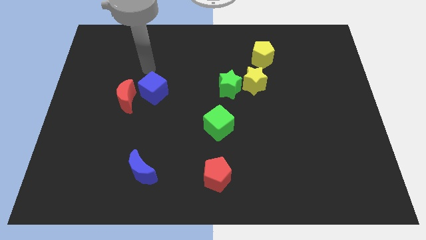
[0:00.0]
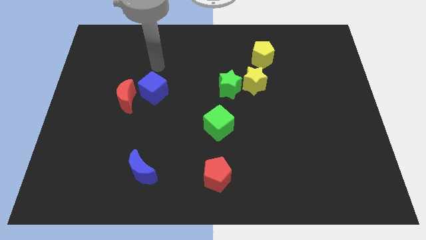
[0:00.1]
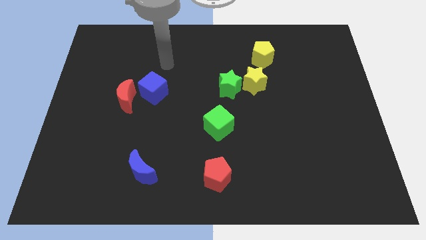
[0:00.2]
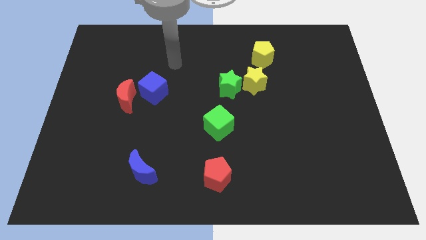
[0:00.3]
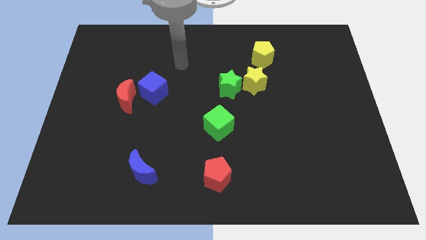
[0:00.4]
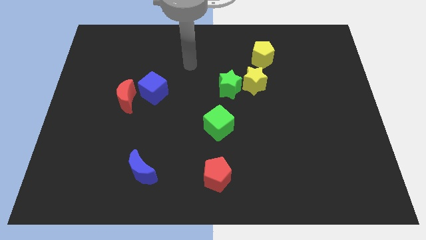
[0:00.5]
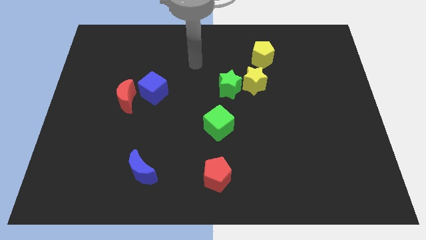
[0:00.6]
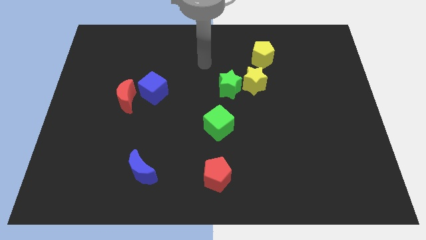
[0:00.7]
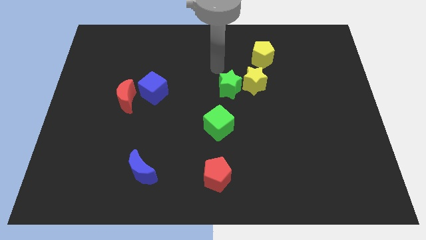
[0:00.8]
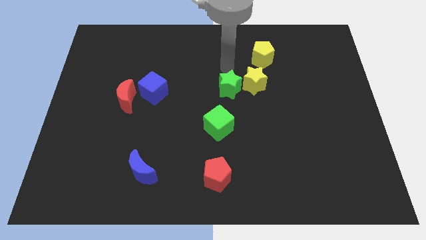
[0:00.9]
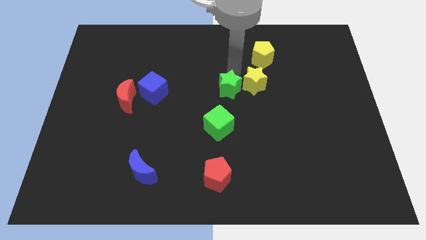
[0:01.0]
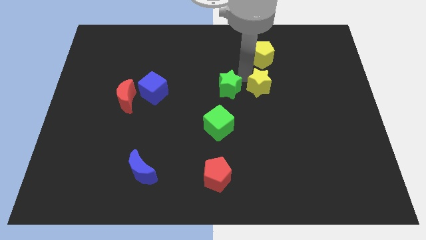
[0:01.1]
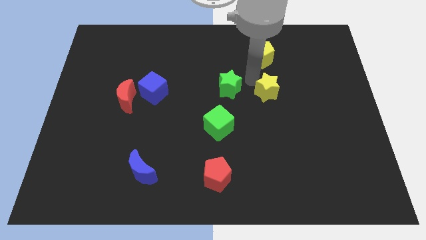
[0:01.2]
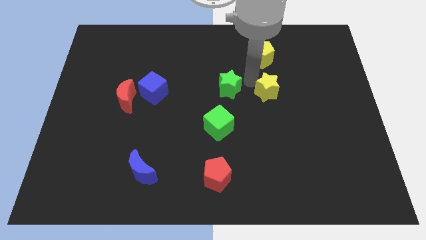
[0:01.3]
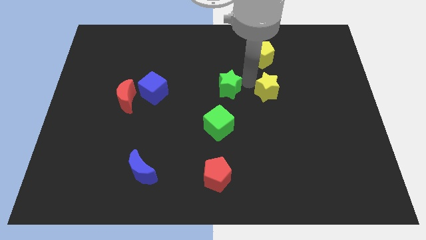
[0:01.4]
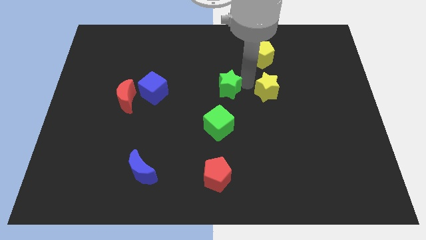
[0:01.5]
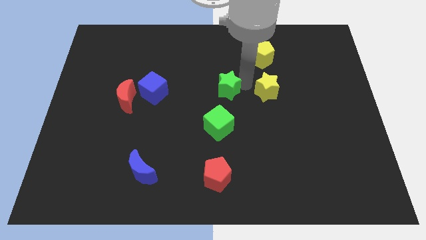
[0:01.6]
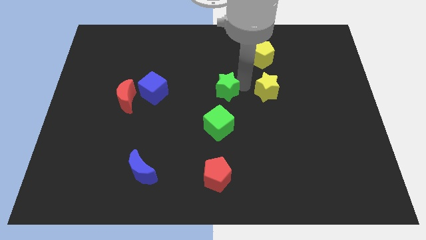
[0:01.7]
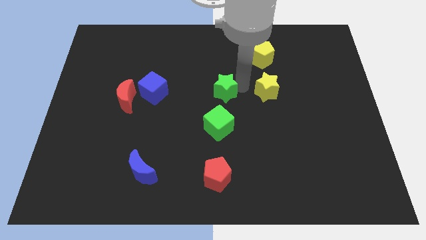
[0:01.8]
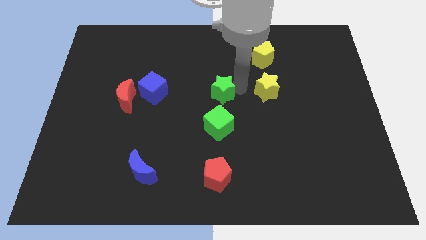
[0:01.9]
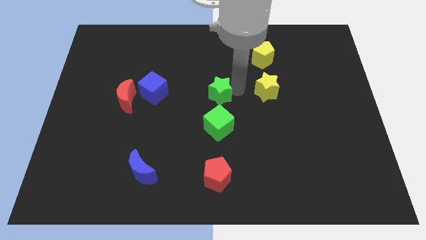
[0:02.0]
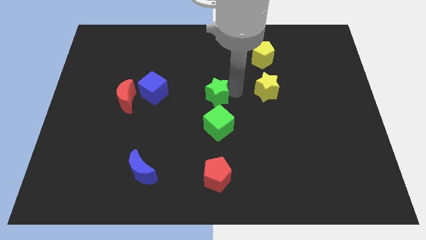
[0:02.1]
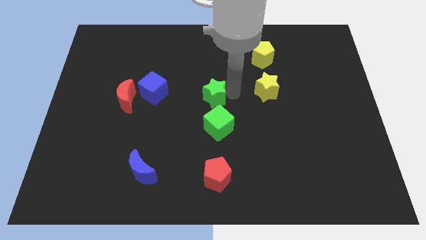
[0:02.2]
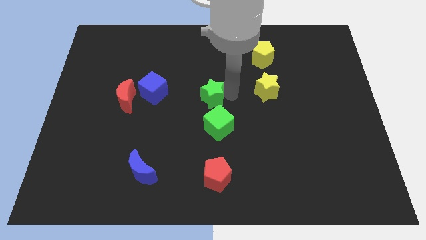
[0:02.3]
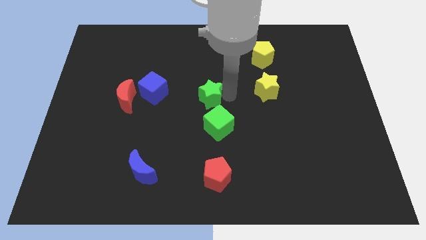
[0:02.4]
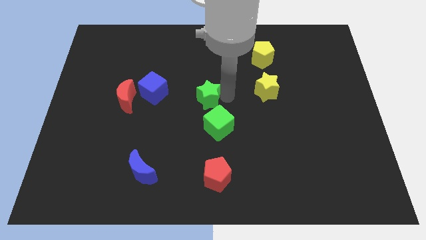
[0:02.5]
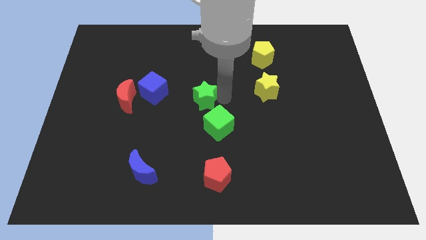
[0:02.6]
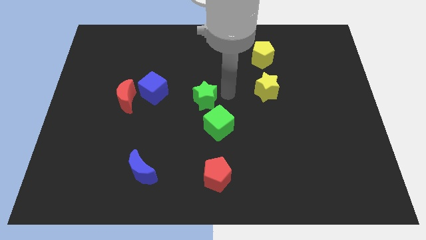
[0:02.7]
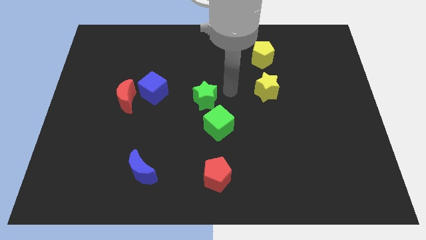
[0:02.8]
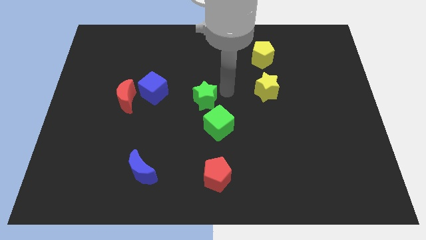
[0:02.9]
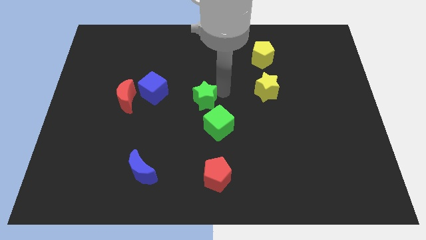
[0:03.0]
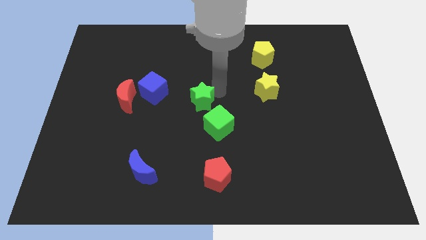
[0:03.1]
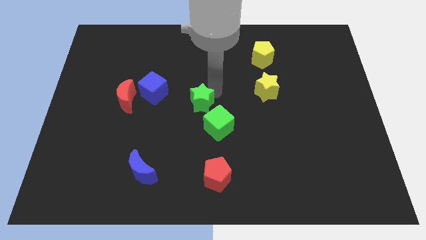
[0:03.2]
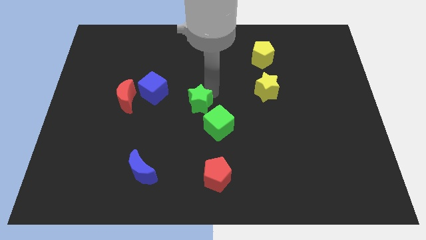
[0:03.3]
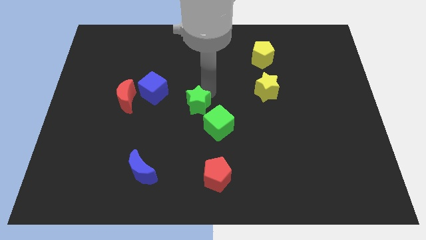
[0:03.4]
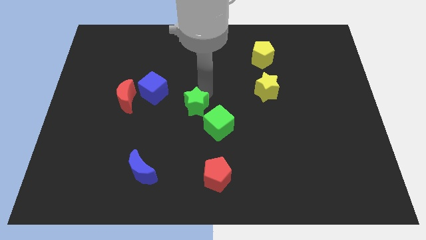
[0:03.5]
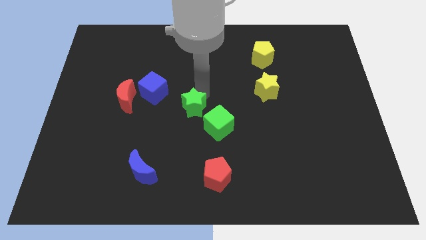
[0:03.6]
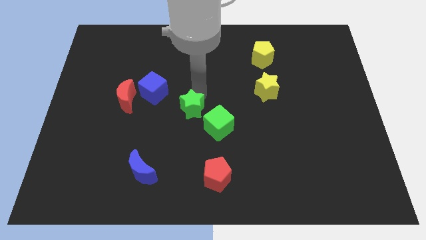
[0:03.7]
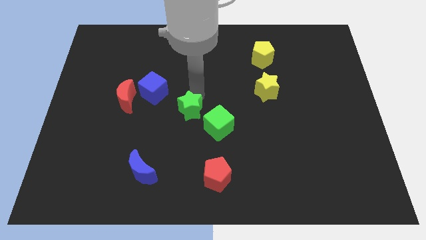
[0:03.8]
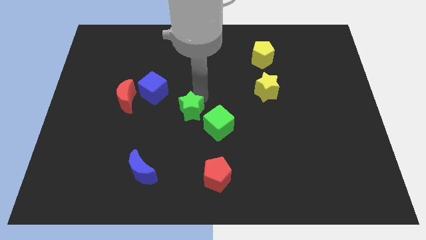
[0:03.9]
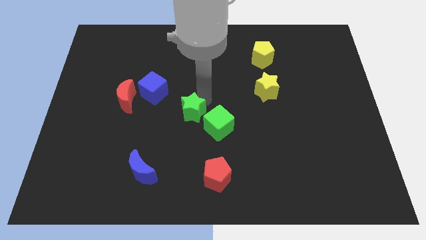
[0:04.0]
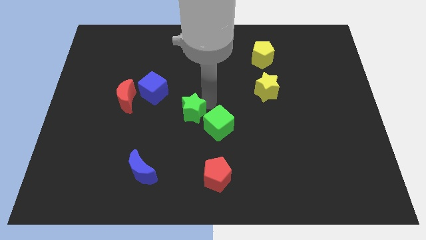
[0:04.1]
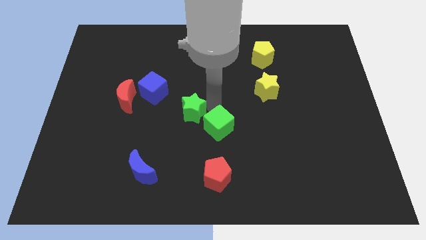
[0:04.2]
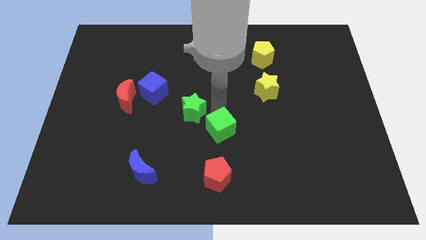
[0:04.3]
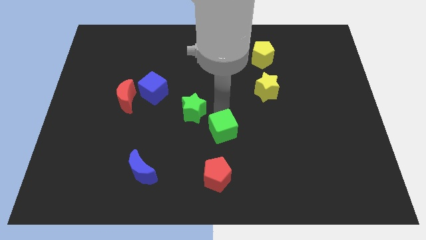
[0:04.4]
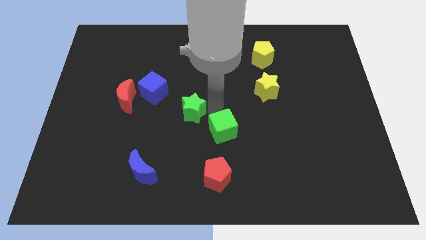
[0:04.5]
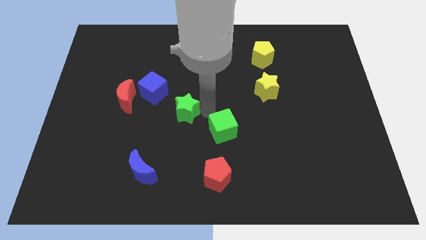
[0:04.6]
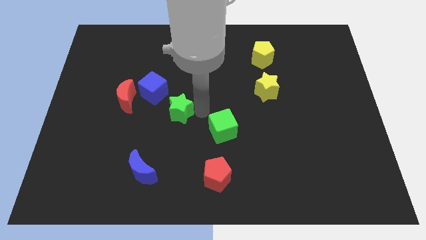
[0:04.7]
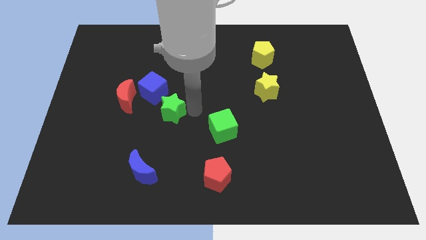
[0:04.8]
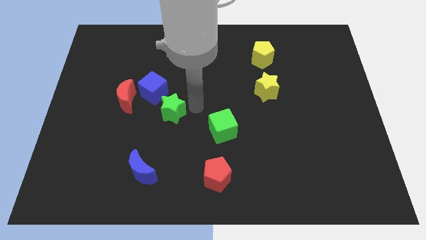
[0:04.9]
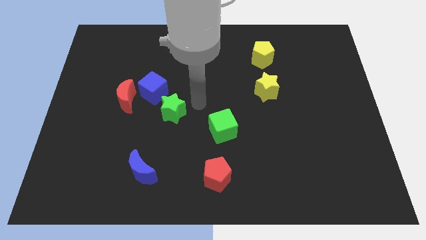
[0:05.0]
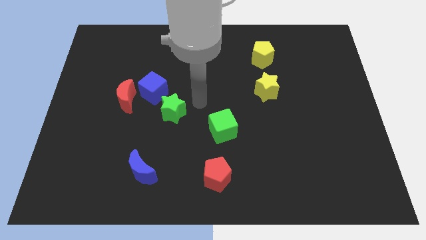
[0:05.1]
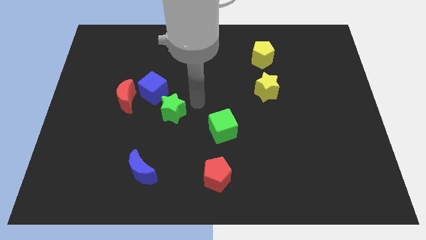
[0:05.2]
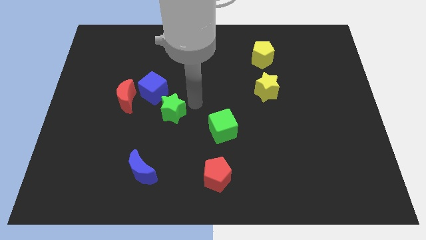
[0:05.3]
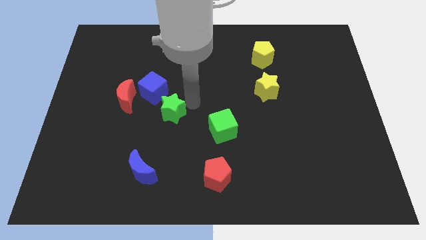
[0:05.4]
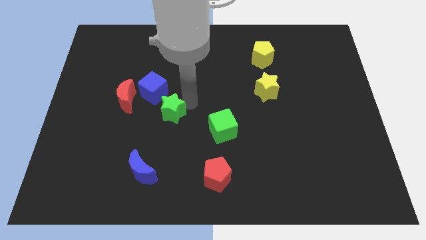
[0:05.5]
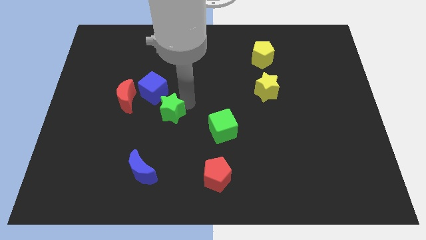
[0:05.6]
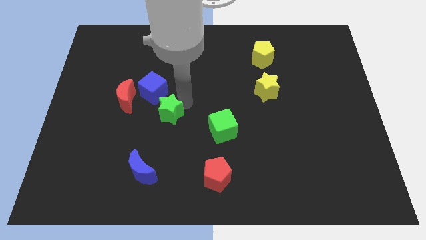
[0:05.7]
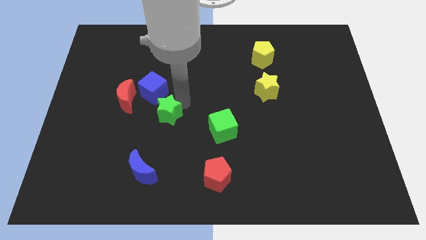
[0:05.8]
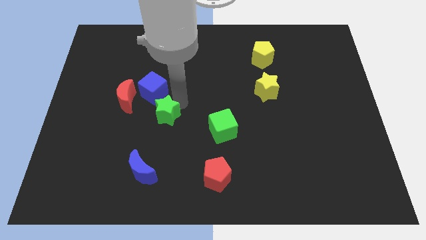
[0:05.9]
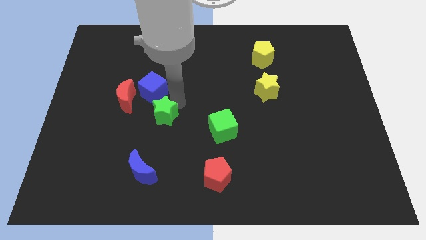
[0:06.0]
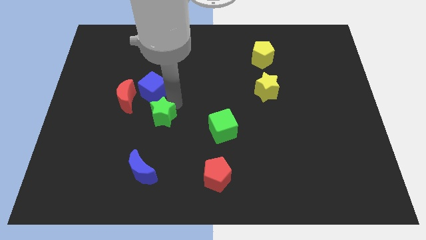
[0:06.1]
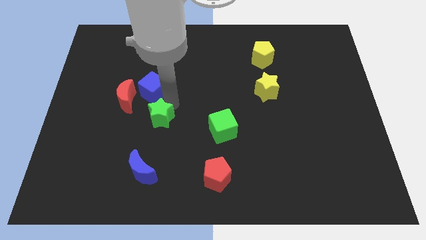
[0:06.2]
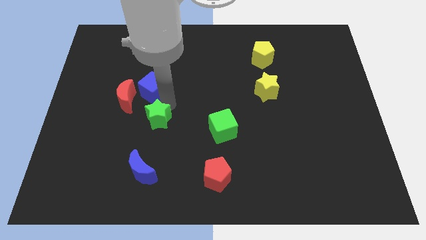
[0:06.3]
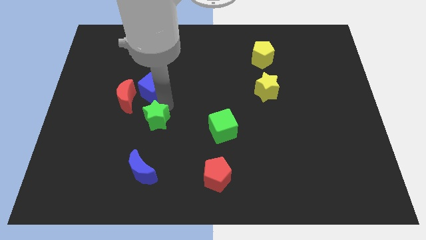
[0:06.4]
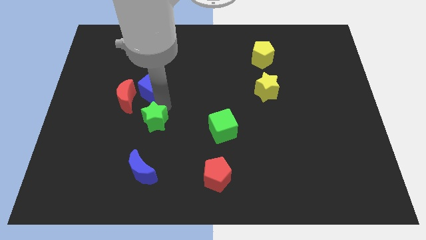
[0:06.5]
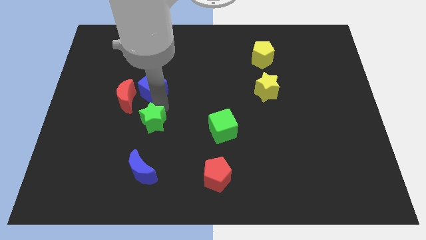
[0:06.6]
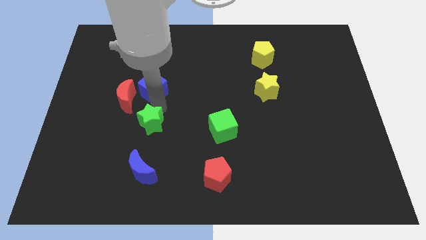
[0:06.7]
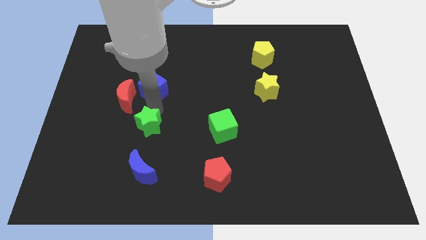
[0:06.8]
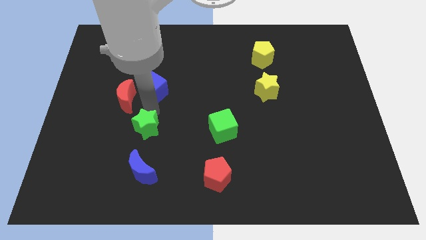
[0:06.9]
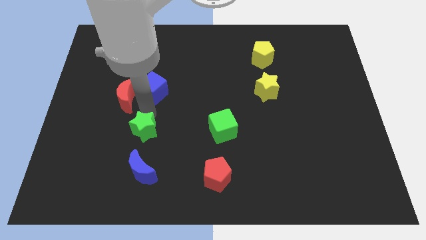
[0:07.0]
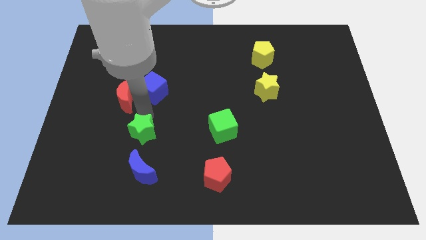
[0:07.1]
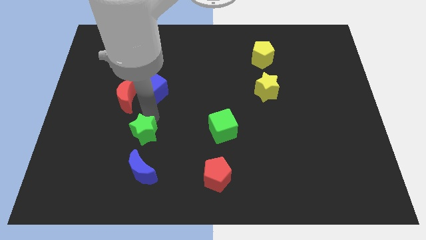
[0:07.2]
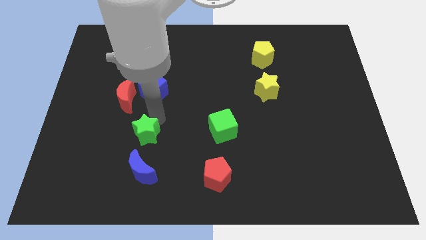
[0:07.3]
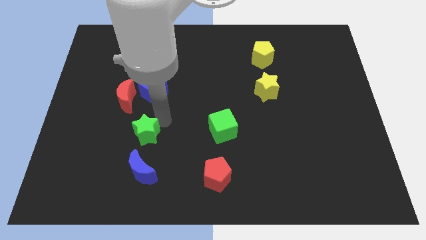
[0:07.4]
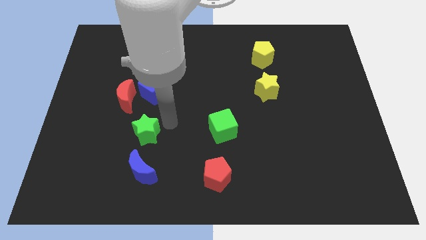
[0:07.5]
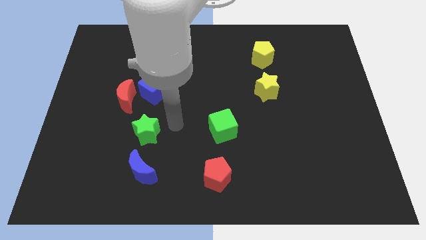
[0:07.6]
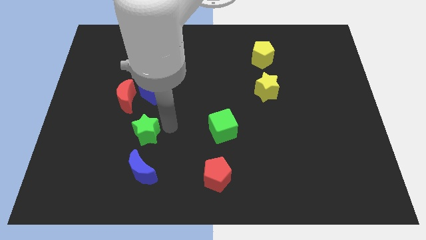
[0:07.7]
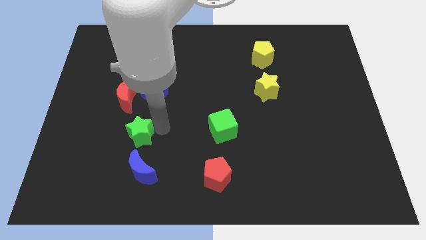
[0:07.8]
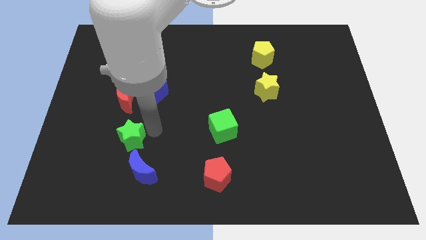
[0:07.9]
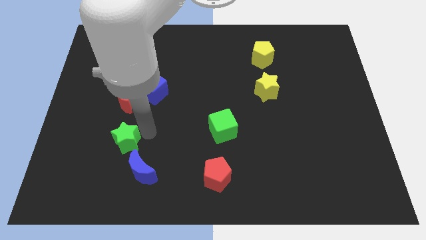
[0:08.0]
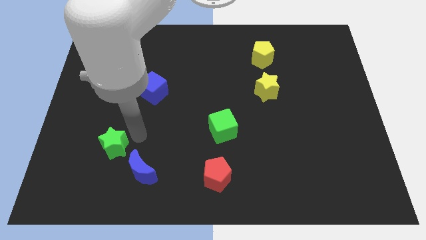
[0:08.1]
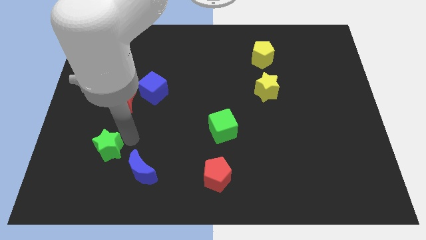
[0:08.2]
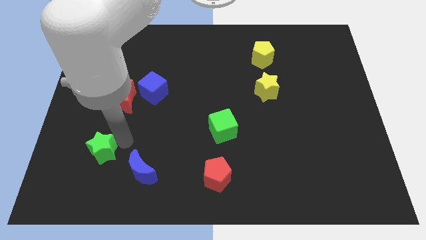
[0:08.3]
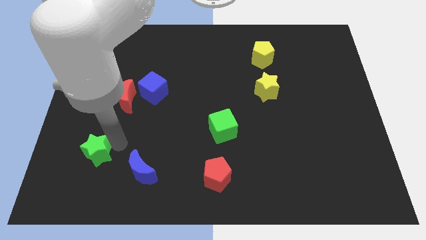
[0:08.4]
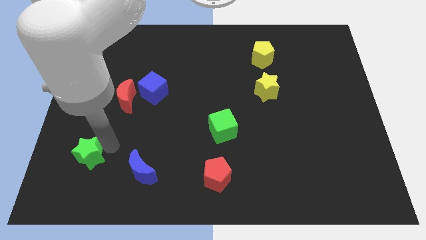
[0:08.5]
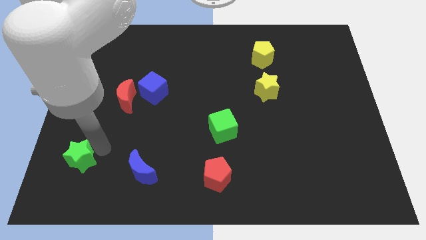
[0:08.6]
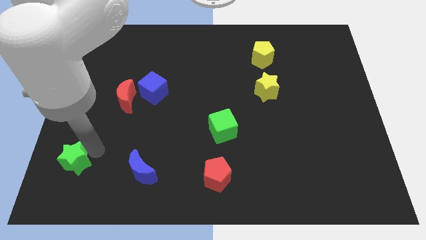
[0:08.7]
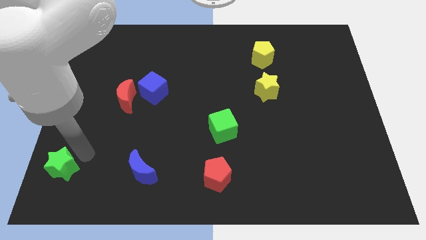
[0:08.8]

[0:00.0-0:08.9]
slide the green star to the bottom left
